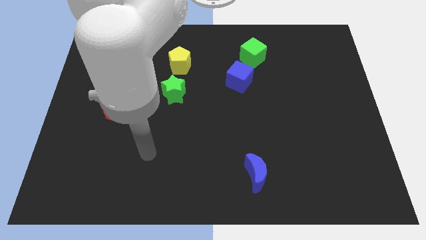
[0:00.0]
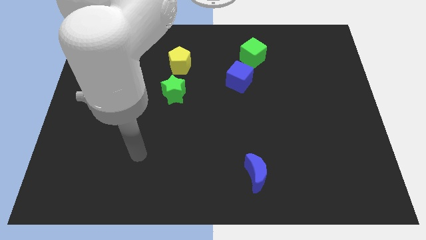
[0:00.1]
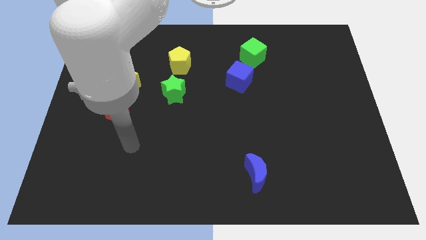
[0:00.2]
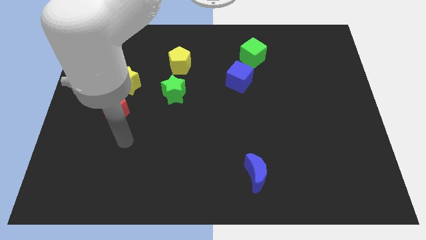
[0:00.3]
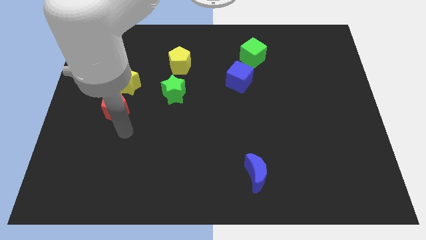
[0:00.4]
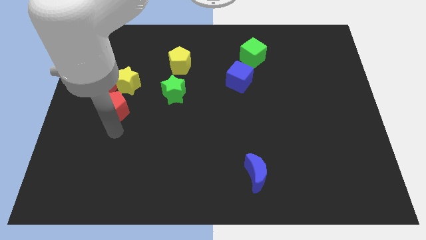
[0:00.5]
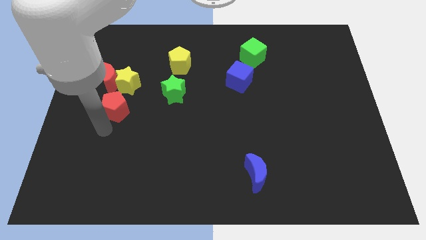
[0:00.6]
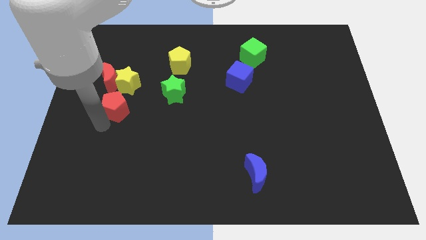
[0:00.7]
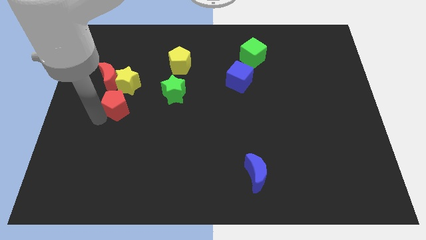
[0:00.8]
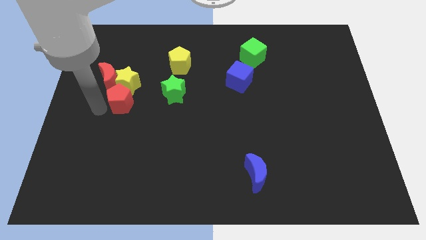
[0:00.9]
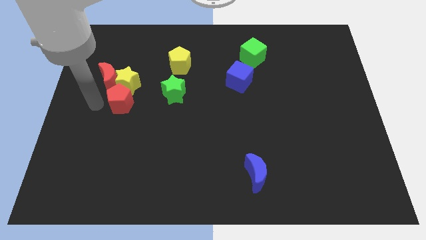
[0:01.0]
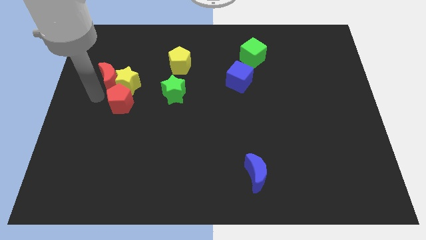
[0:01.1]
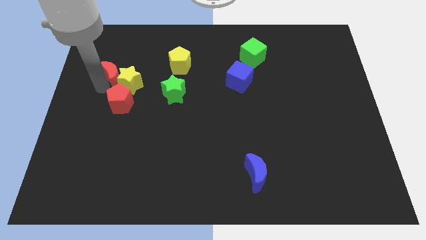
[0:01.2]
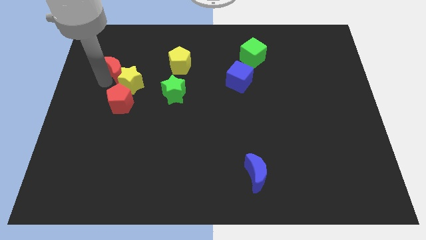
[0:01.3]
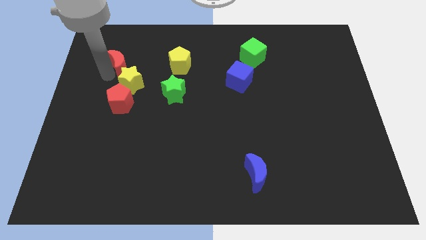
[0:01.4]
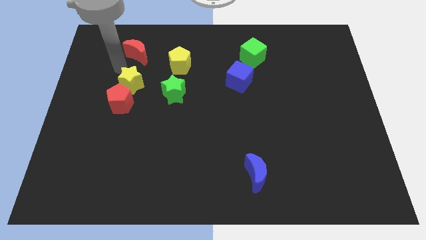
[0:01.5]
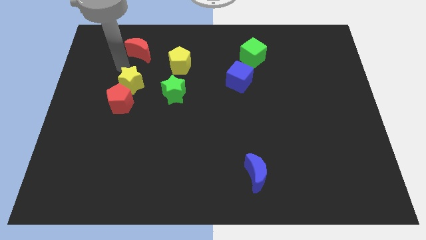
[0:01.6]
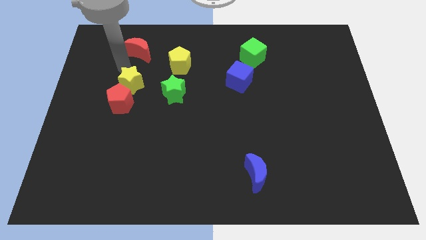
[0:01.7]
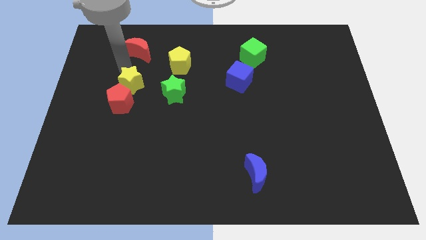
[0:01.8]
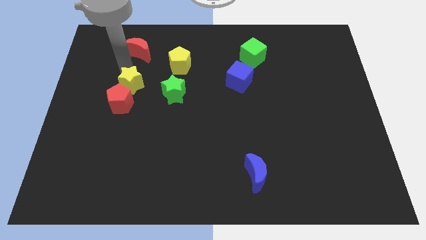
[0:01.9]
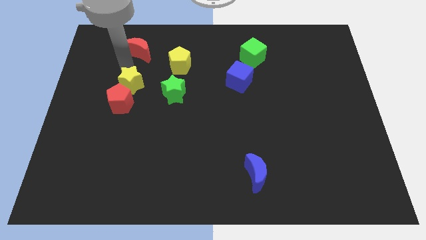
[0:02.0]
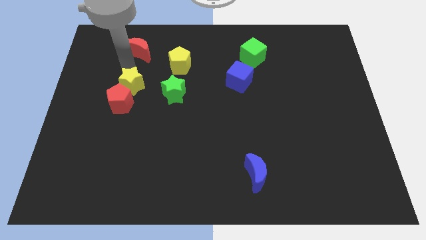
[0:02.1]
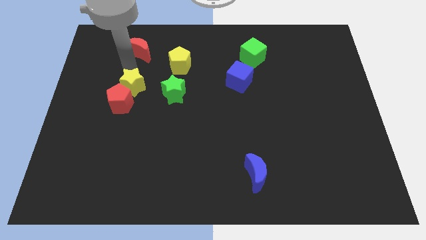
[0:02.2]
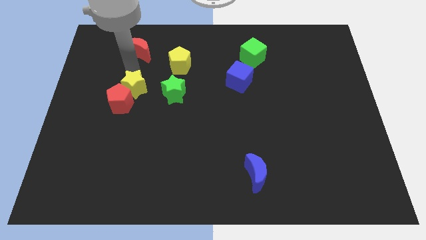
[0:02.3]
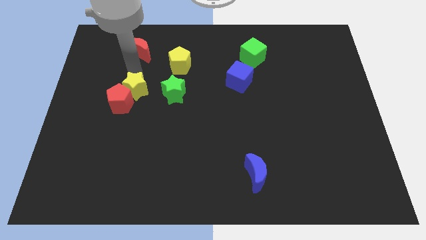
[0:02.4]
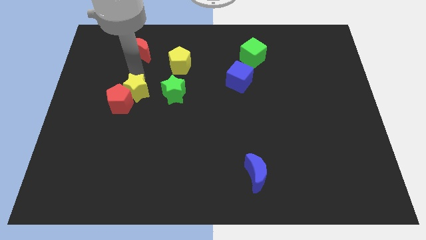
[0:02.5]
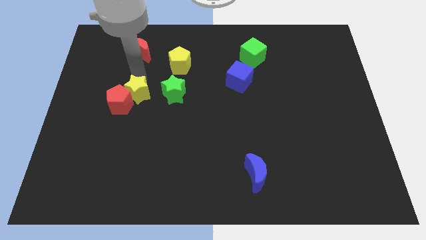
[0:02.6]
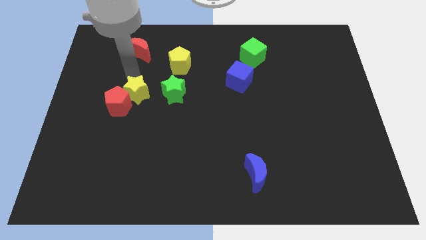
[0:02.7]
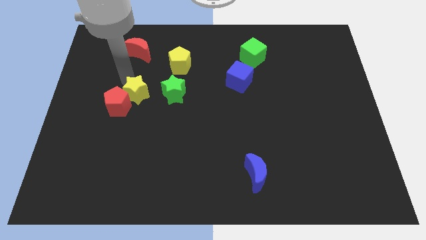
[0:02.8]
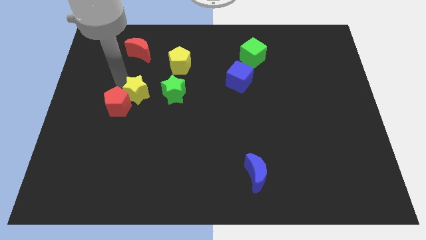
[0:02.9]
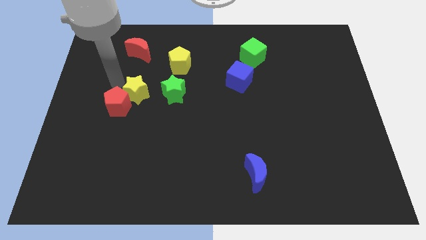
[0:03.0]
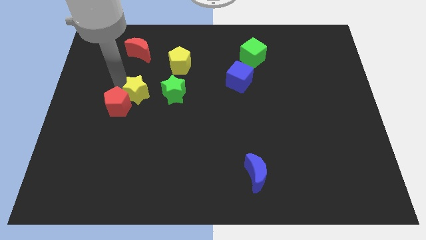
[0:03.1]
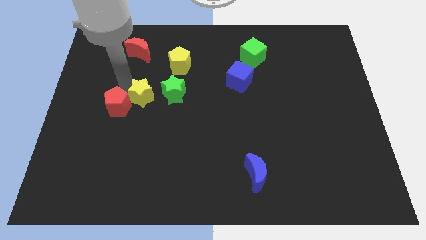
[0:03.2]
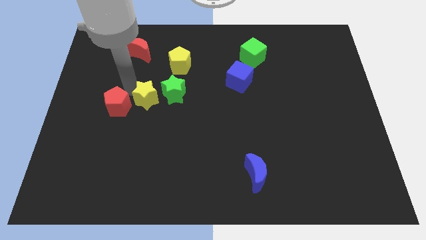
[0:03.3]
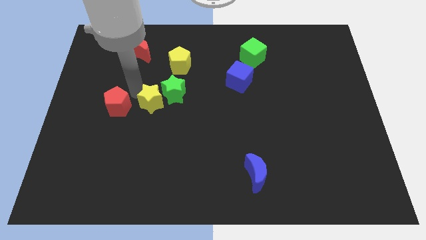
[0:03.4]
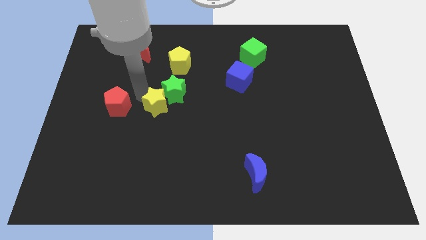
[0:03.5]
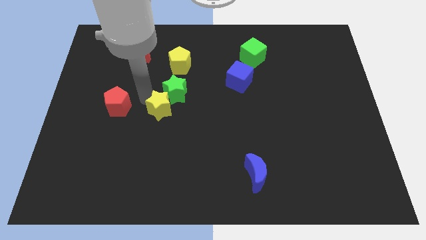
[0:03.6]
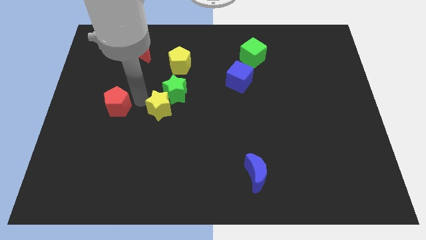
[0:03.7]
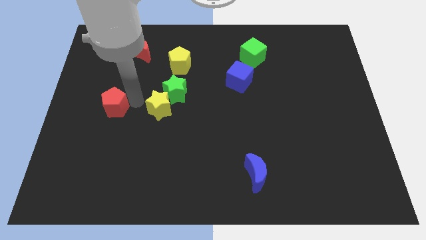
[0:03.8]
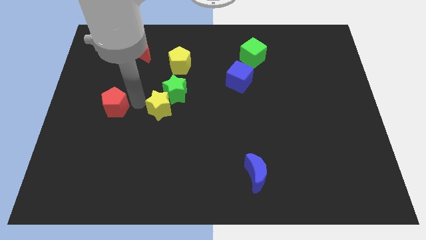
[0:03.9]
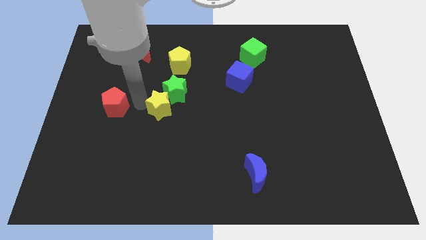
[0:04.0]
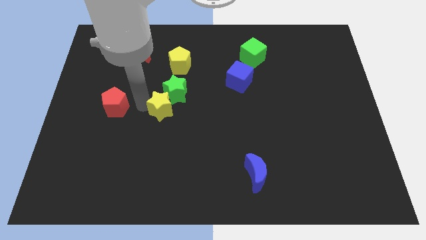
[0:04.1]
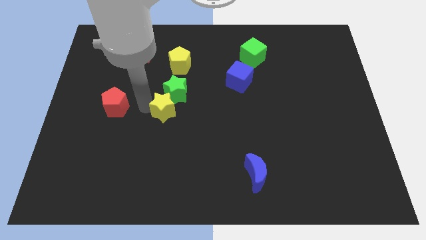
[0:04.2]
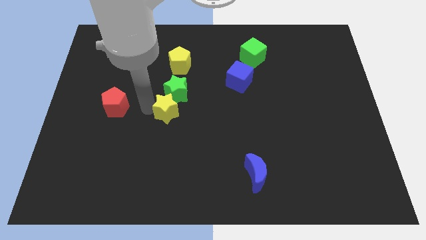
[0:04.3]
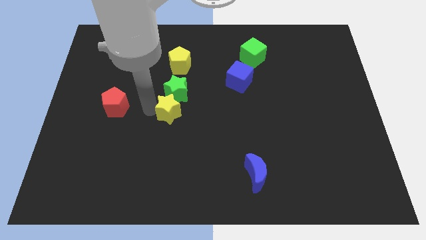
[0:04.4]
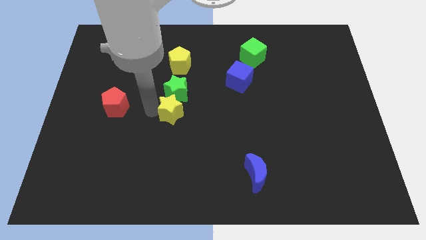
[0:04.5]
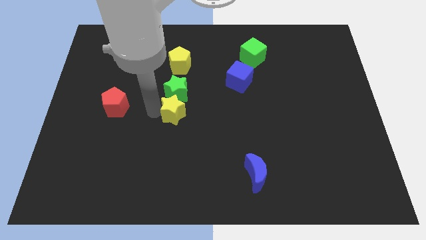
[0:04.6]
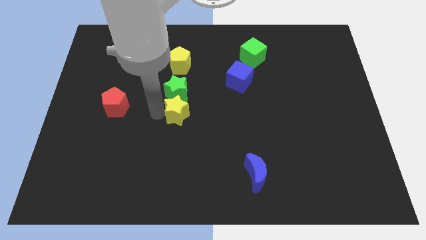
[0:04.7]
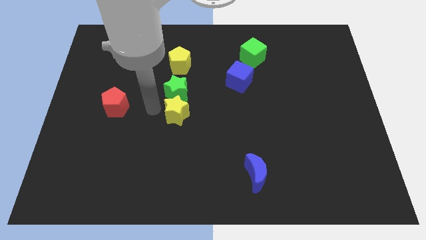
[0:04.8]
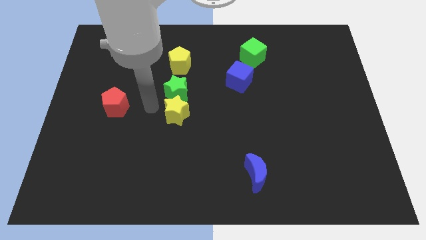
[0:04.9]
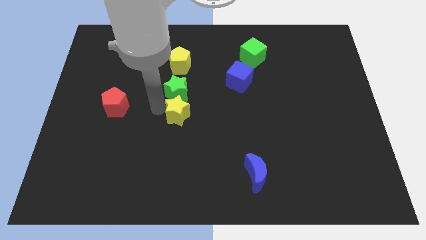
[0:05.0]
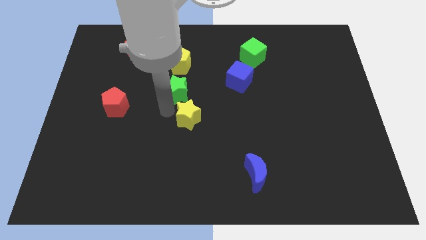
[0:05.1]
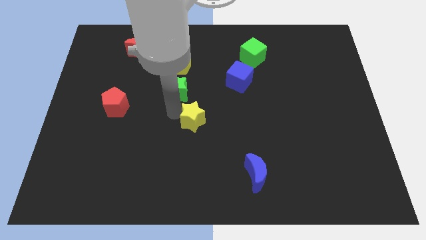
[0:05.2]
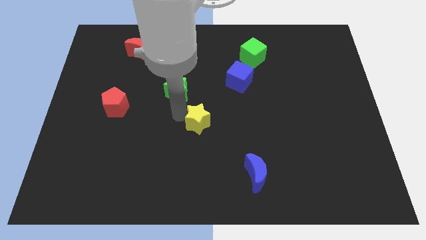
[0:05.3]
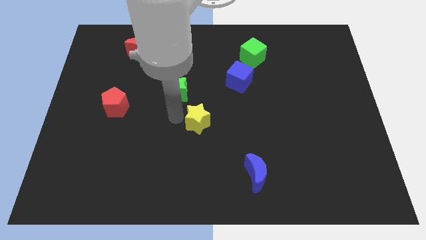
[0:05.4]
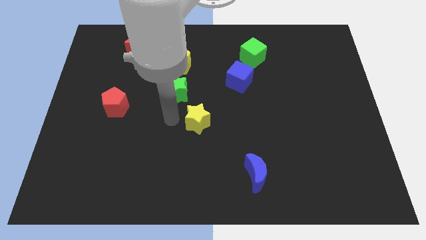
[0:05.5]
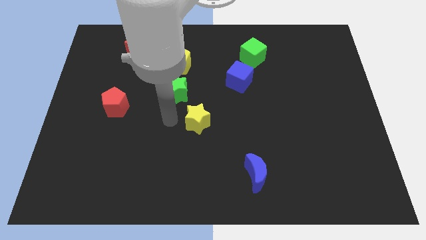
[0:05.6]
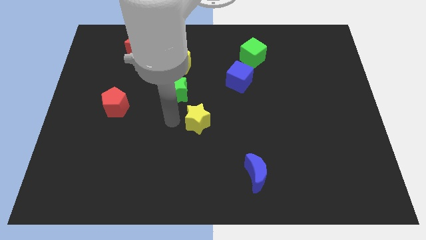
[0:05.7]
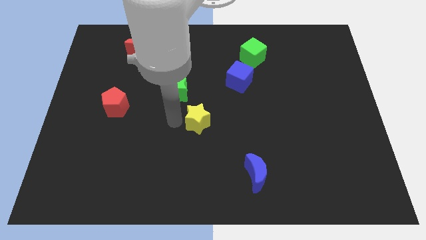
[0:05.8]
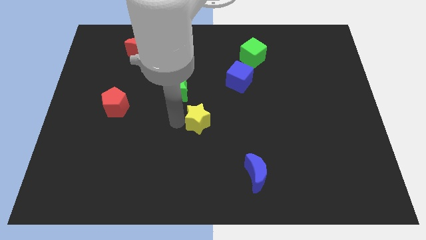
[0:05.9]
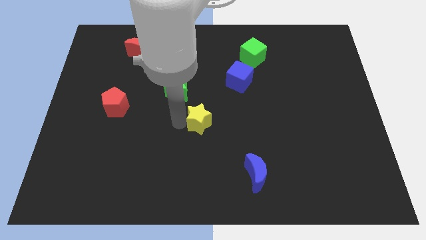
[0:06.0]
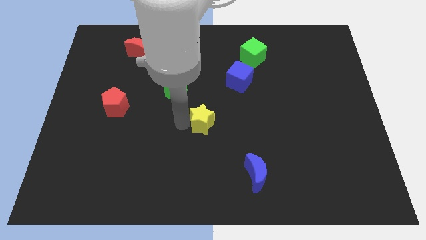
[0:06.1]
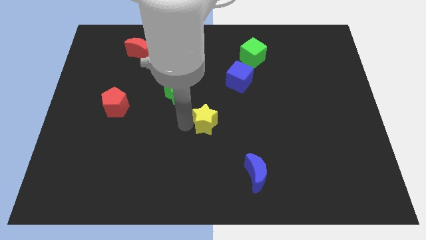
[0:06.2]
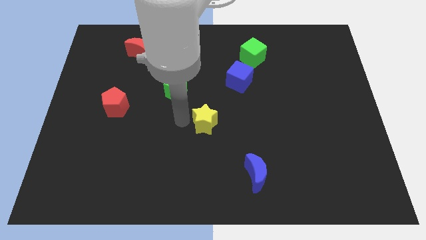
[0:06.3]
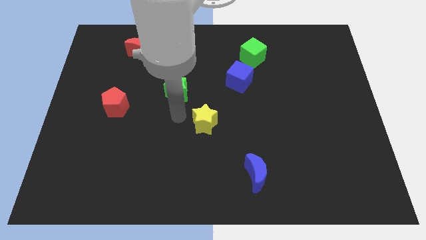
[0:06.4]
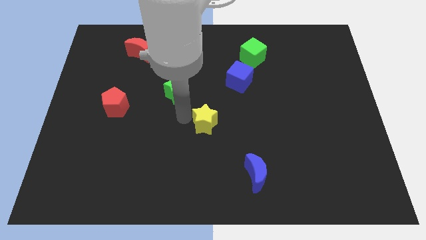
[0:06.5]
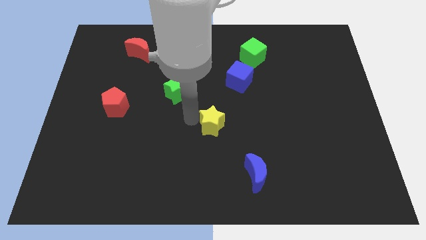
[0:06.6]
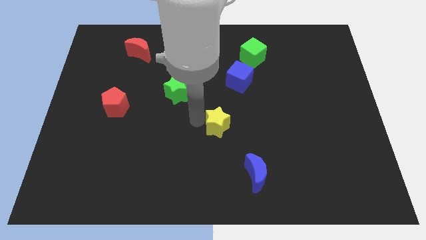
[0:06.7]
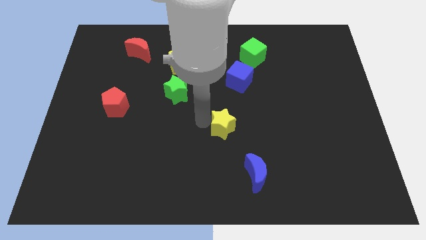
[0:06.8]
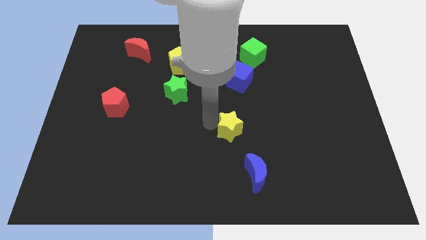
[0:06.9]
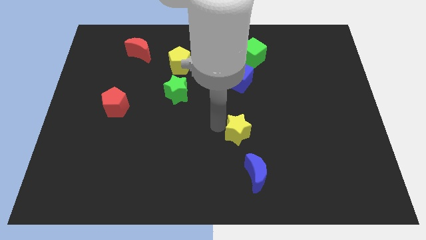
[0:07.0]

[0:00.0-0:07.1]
put the yellow star above the blue moon
